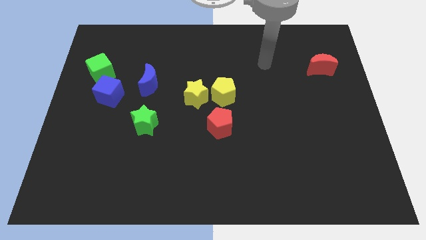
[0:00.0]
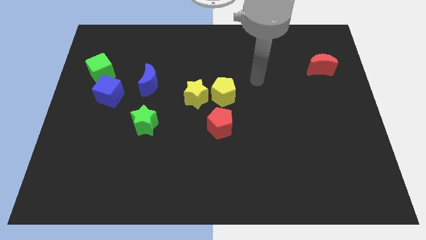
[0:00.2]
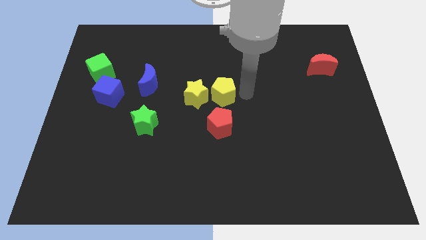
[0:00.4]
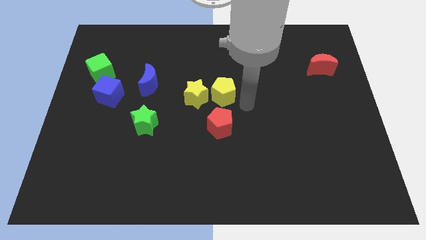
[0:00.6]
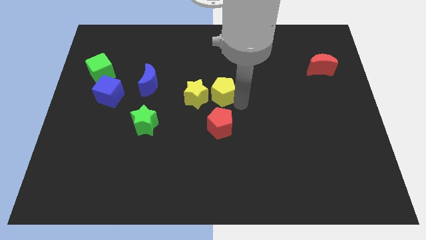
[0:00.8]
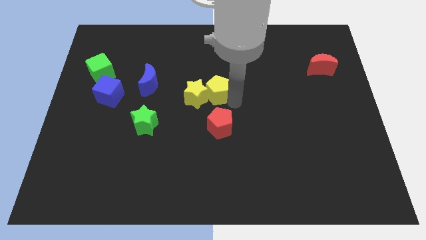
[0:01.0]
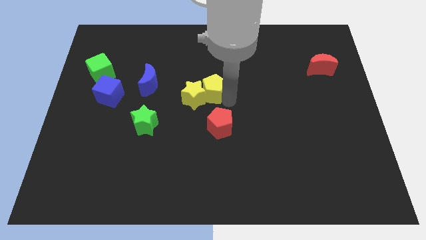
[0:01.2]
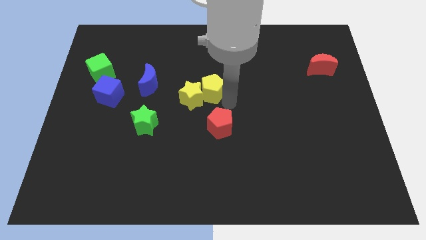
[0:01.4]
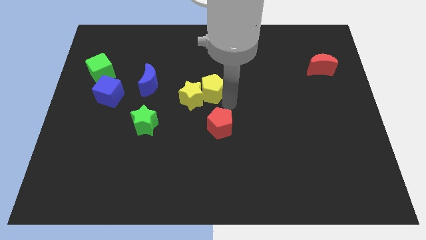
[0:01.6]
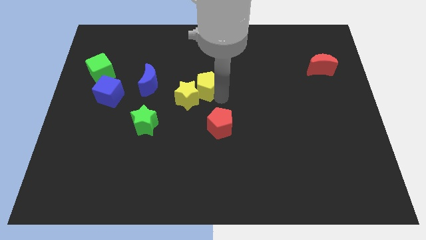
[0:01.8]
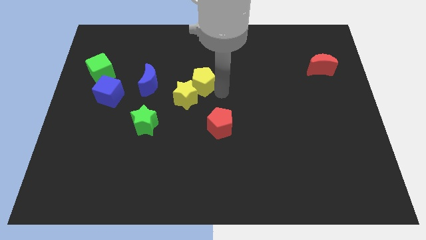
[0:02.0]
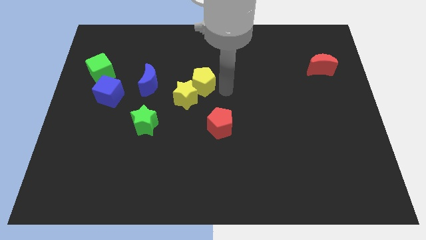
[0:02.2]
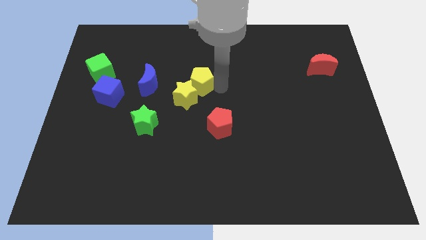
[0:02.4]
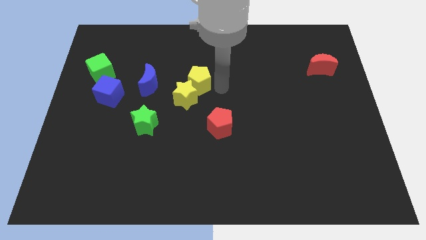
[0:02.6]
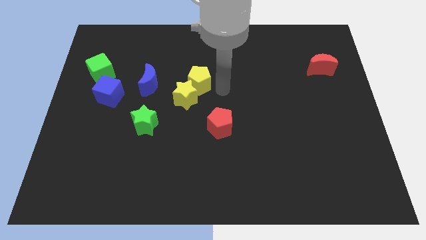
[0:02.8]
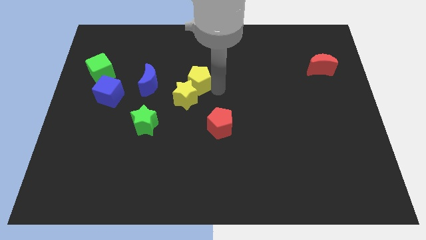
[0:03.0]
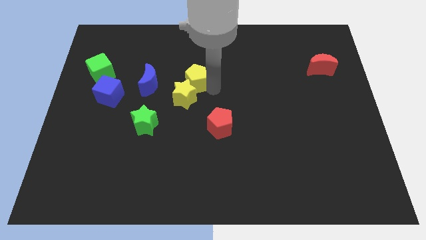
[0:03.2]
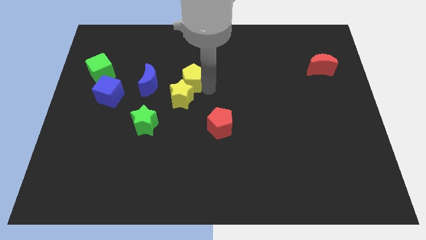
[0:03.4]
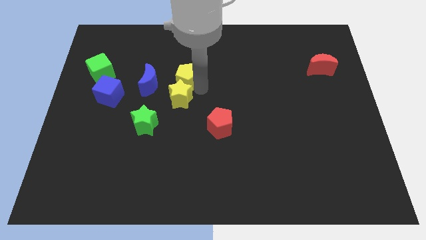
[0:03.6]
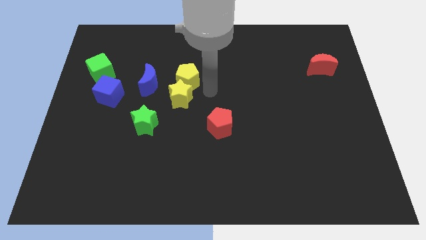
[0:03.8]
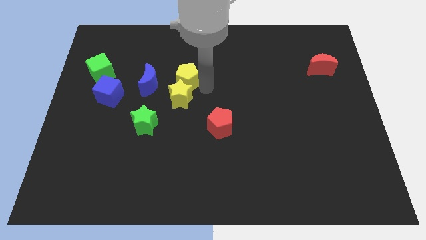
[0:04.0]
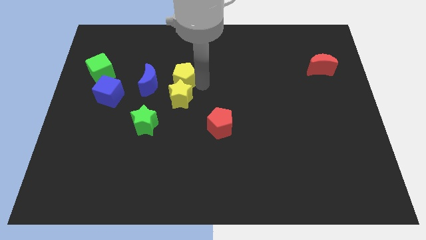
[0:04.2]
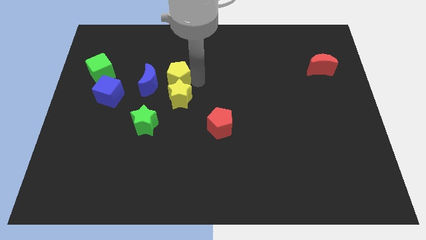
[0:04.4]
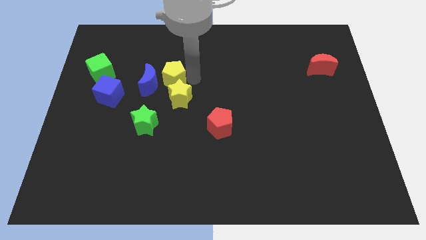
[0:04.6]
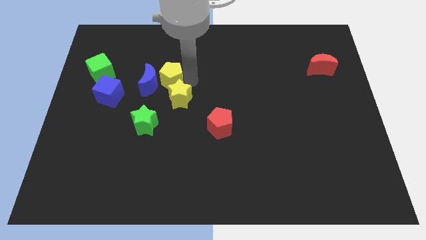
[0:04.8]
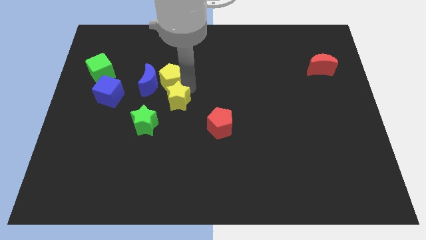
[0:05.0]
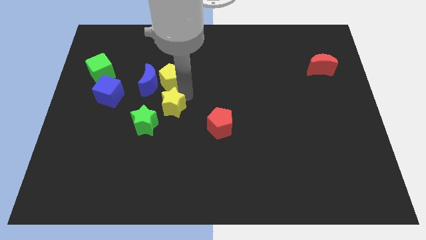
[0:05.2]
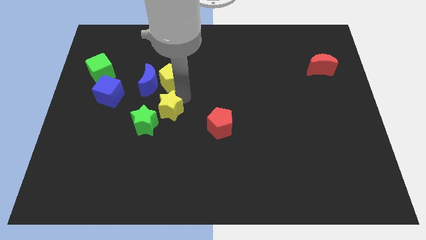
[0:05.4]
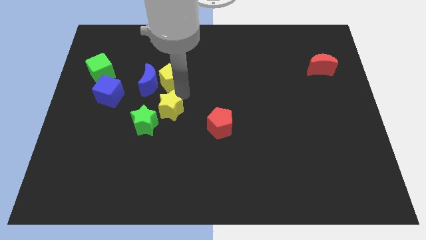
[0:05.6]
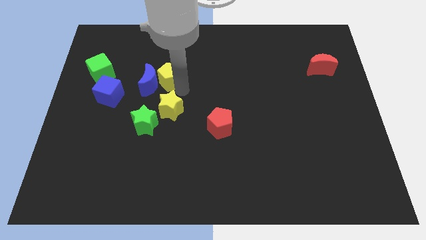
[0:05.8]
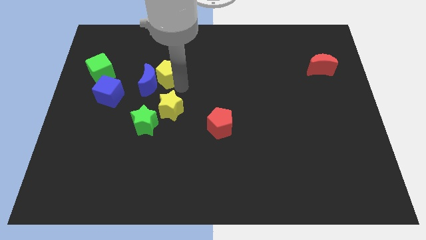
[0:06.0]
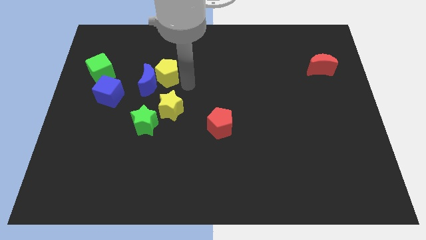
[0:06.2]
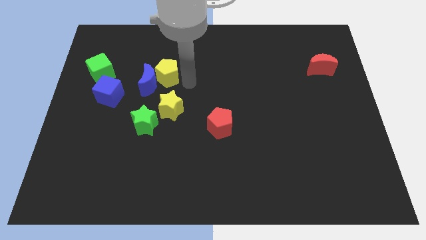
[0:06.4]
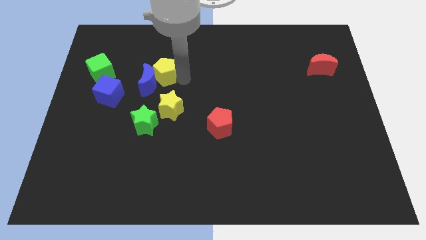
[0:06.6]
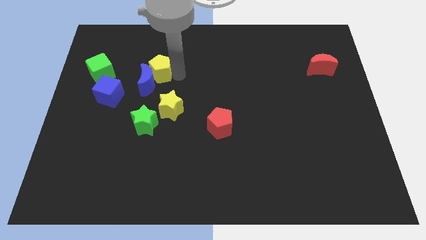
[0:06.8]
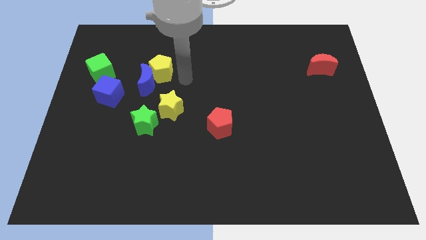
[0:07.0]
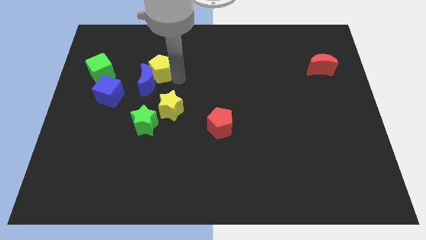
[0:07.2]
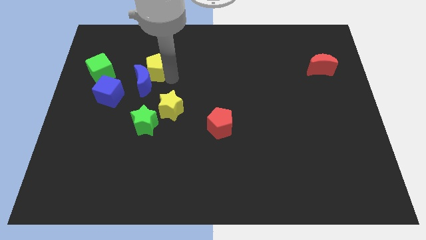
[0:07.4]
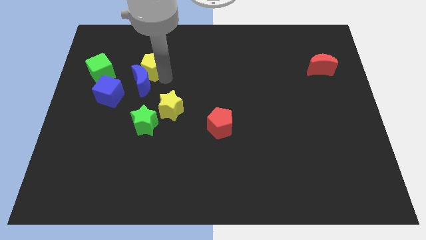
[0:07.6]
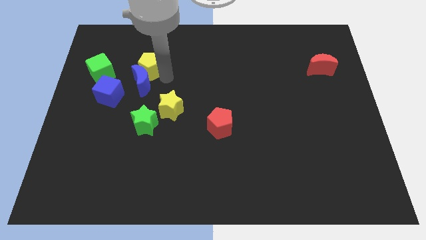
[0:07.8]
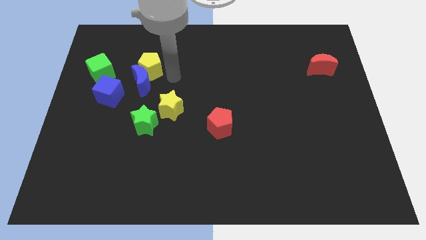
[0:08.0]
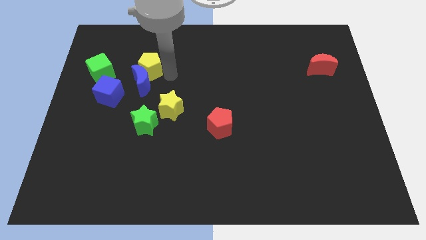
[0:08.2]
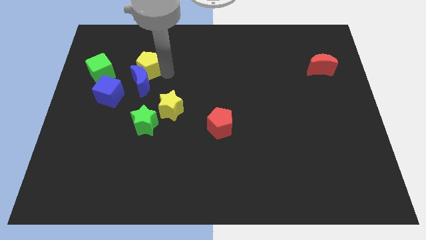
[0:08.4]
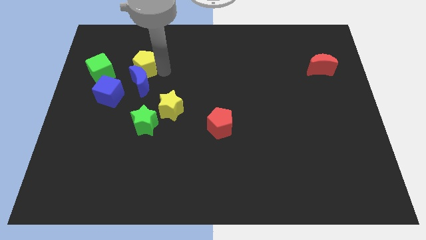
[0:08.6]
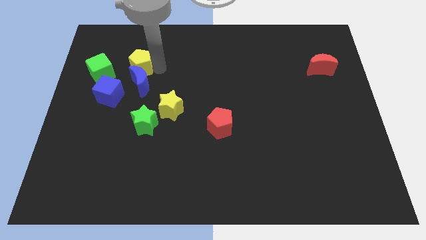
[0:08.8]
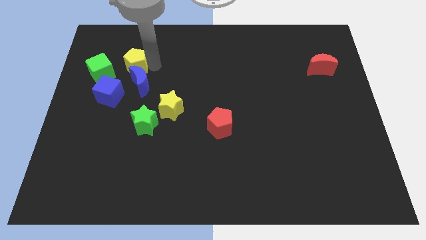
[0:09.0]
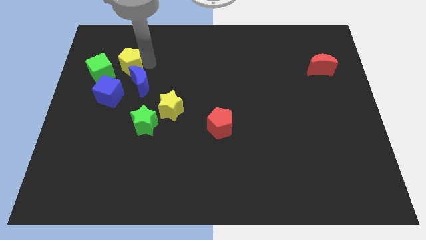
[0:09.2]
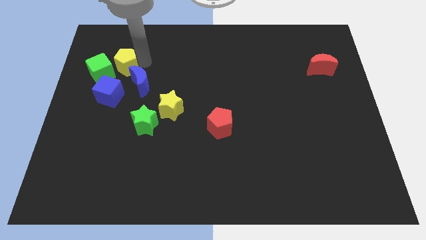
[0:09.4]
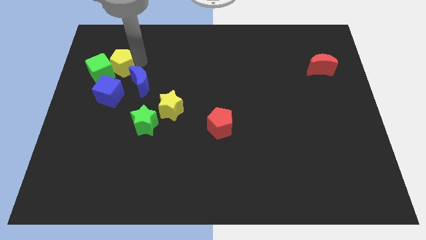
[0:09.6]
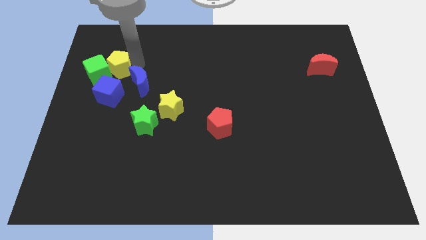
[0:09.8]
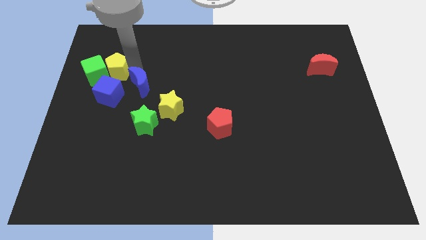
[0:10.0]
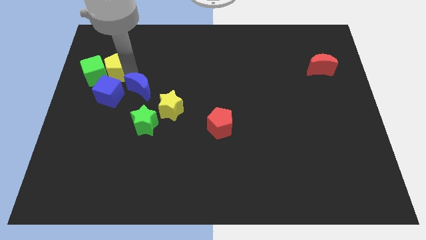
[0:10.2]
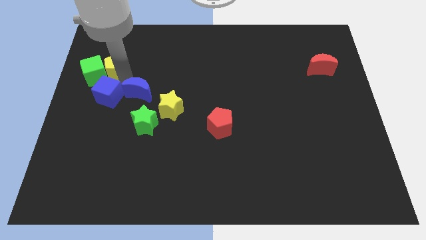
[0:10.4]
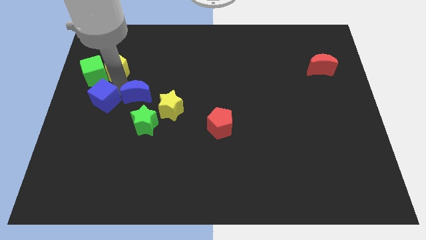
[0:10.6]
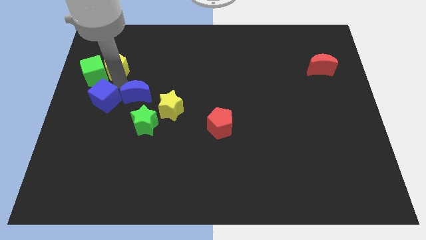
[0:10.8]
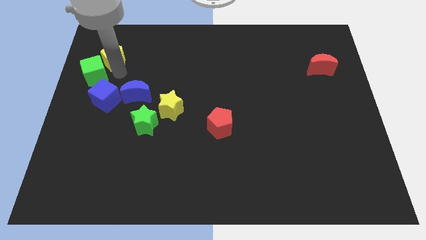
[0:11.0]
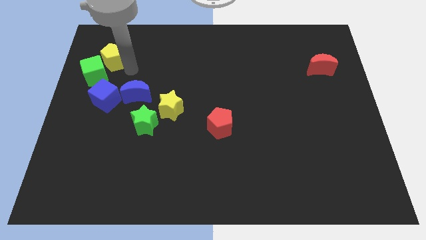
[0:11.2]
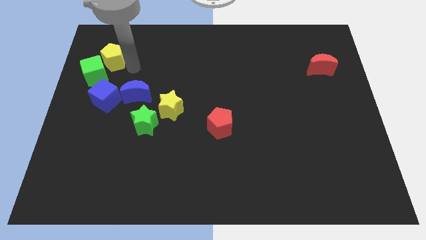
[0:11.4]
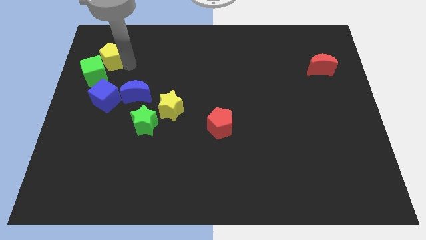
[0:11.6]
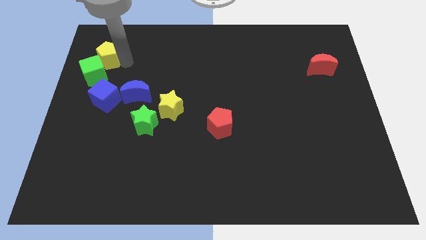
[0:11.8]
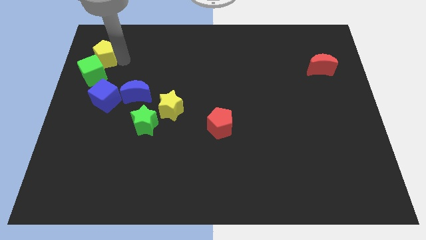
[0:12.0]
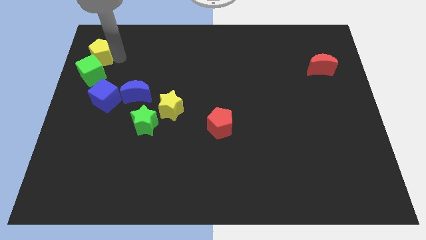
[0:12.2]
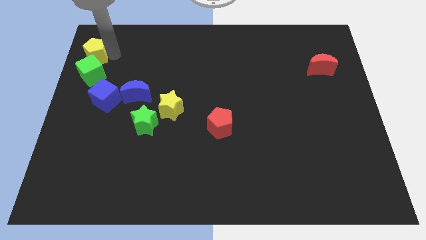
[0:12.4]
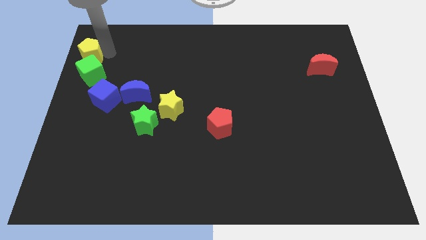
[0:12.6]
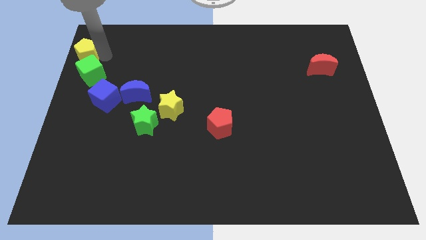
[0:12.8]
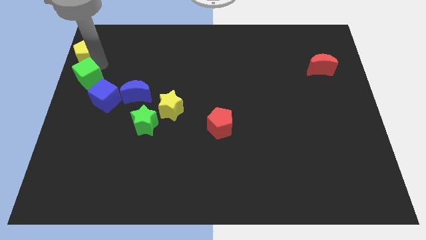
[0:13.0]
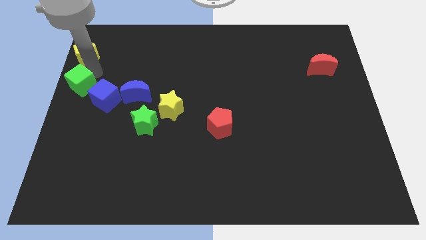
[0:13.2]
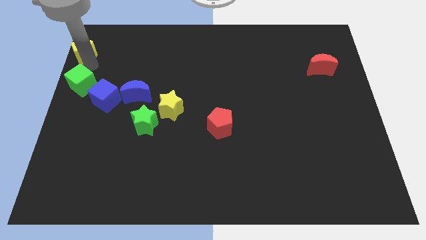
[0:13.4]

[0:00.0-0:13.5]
push the yellow pentagon to the upper left corner
